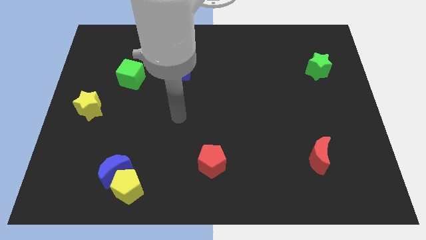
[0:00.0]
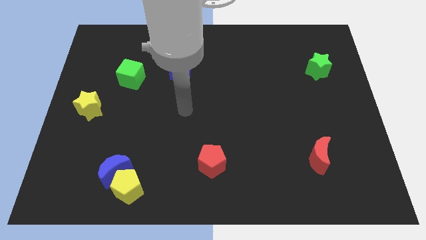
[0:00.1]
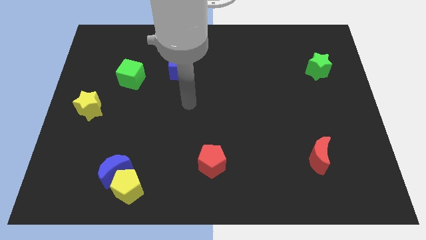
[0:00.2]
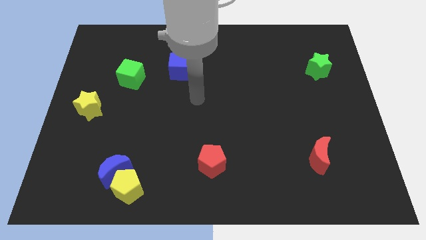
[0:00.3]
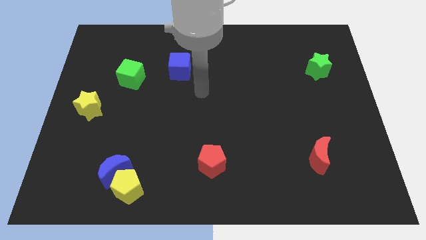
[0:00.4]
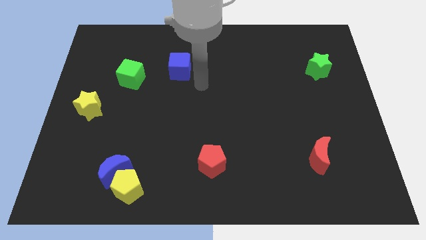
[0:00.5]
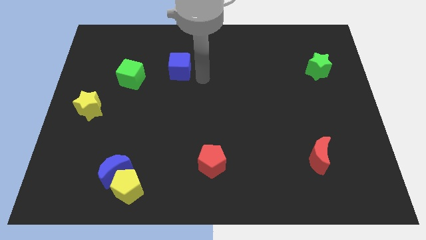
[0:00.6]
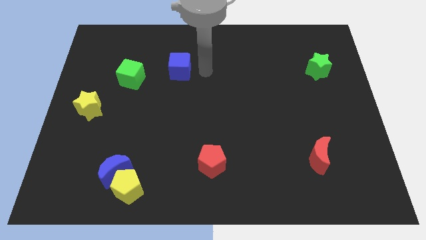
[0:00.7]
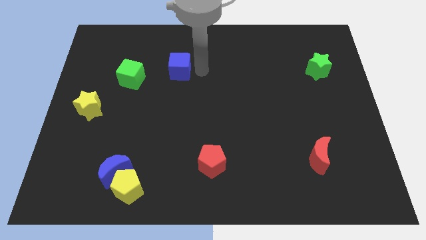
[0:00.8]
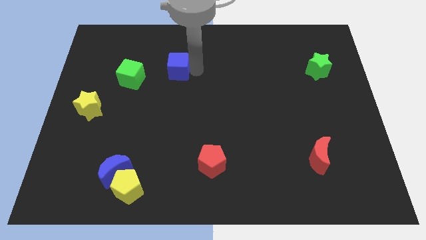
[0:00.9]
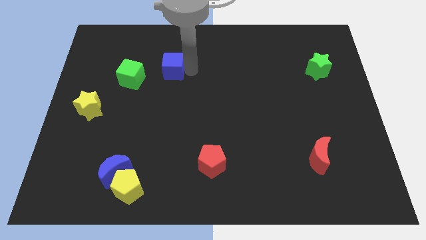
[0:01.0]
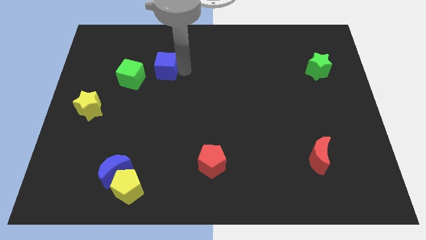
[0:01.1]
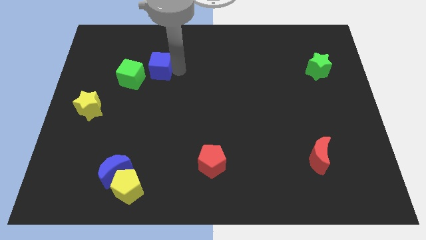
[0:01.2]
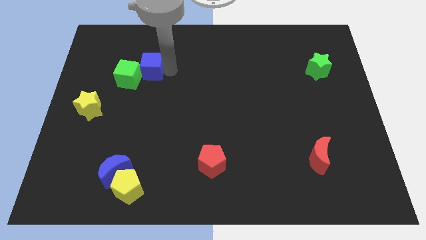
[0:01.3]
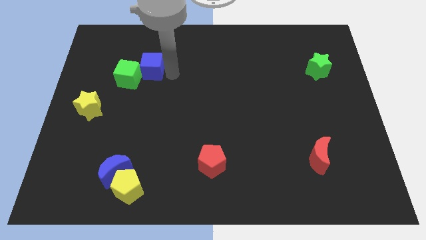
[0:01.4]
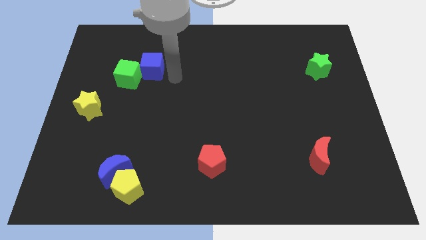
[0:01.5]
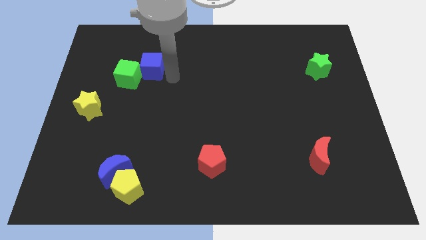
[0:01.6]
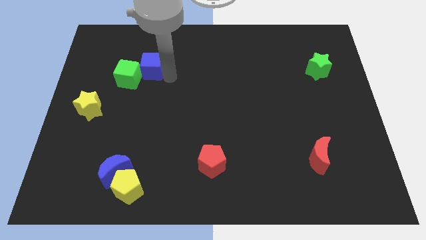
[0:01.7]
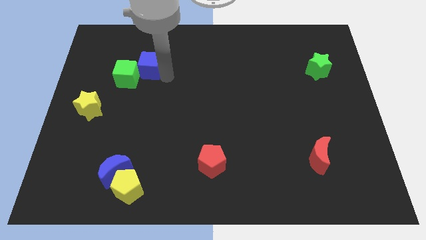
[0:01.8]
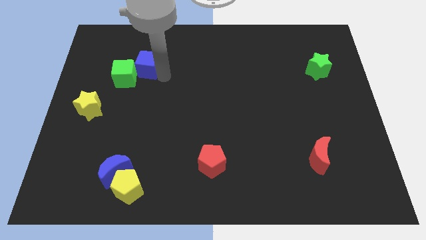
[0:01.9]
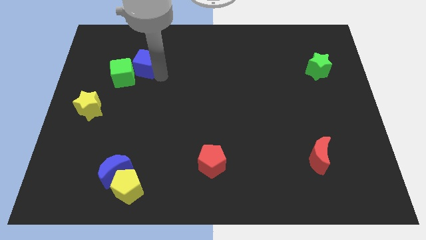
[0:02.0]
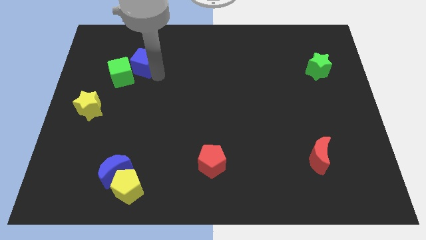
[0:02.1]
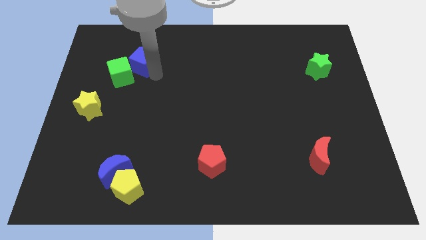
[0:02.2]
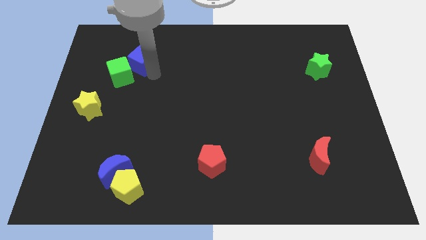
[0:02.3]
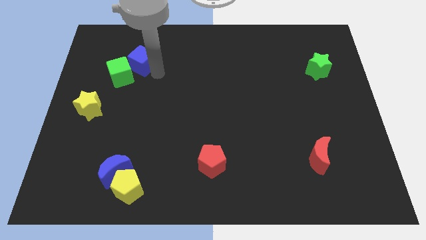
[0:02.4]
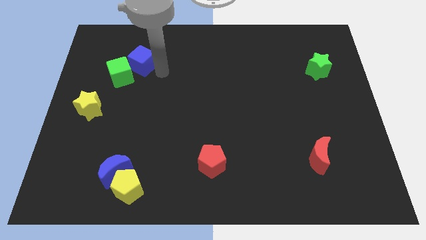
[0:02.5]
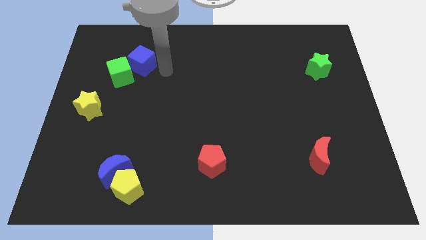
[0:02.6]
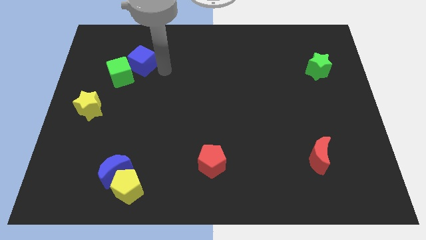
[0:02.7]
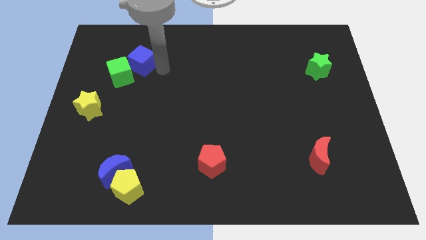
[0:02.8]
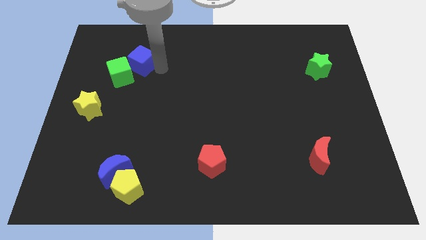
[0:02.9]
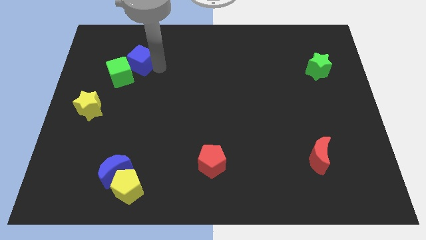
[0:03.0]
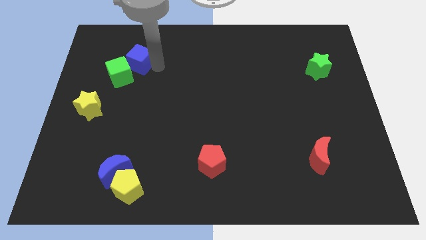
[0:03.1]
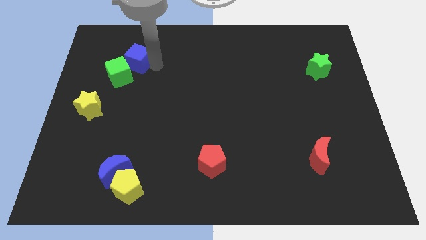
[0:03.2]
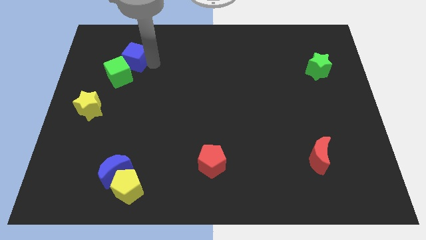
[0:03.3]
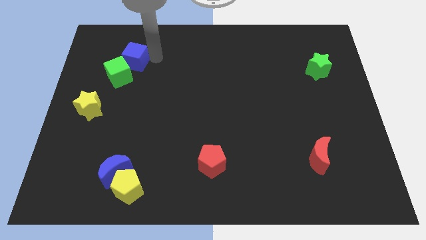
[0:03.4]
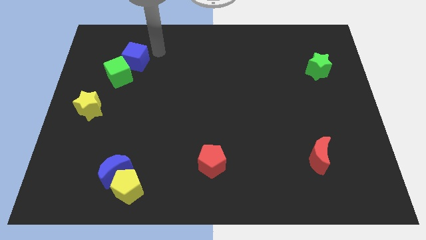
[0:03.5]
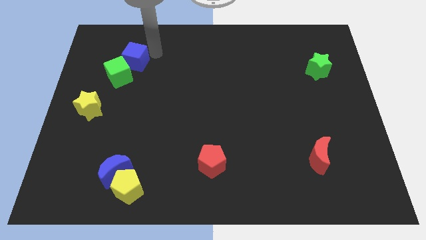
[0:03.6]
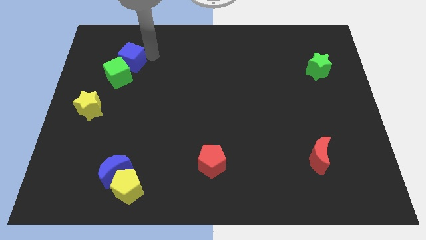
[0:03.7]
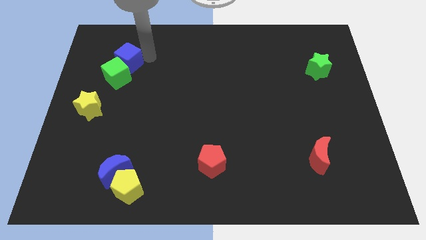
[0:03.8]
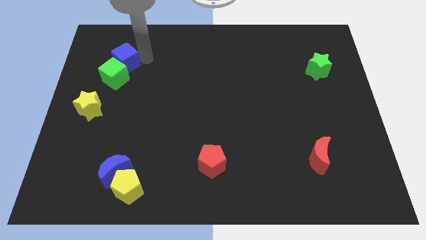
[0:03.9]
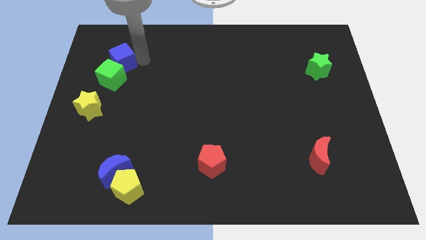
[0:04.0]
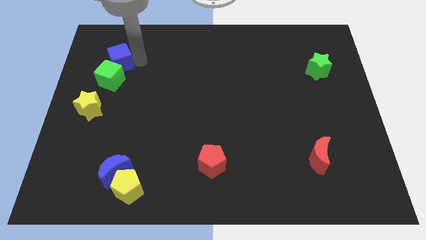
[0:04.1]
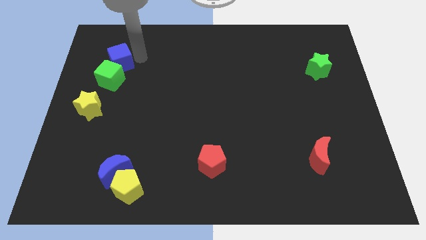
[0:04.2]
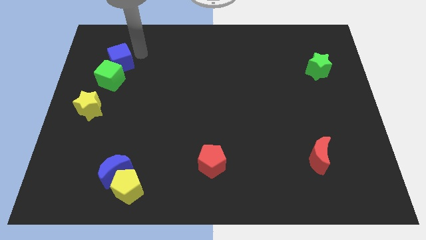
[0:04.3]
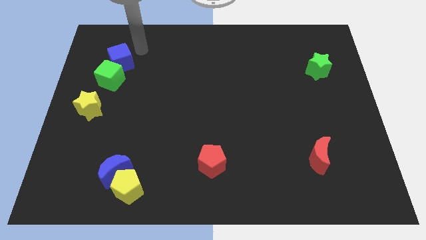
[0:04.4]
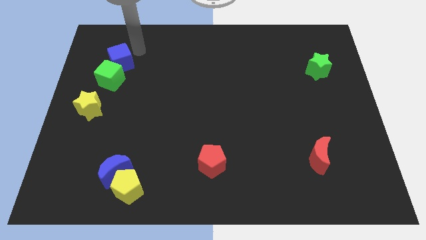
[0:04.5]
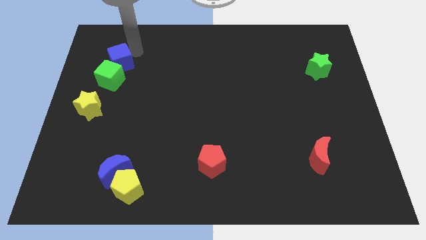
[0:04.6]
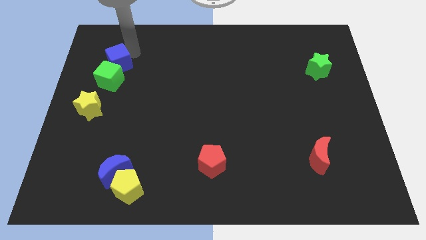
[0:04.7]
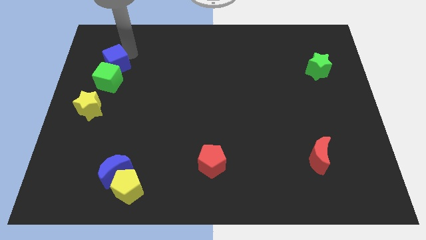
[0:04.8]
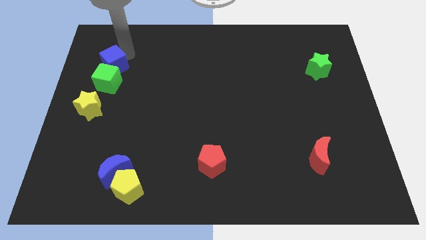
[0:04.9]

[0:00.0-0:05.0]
push the blue cube above the yellow star

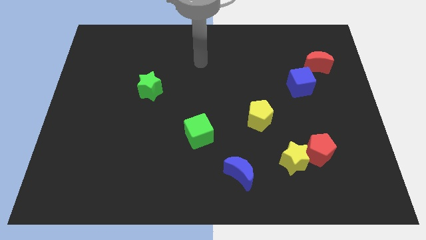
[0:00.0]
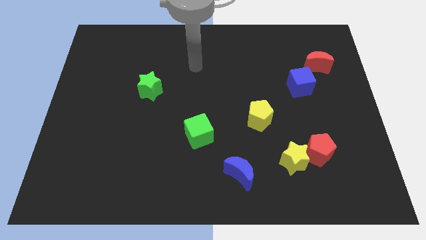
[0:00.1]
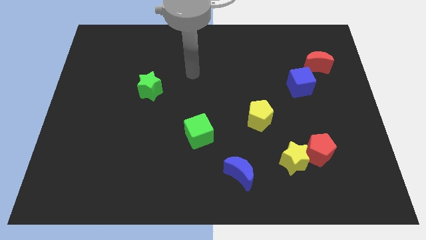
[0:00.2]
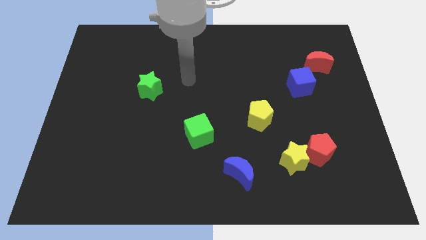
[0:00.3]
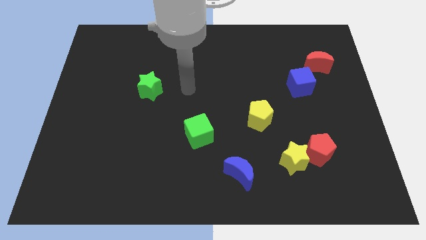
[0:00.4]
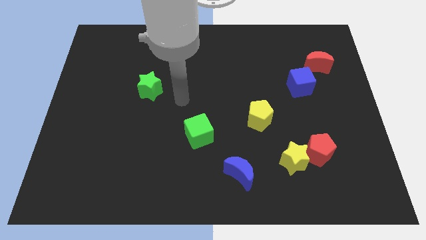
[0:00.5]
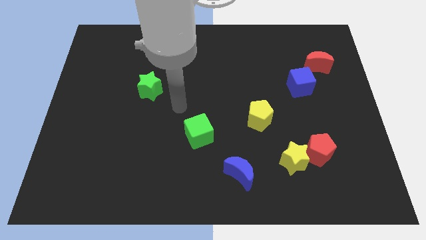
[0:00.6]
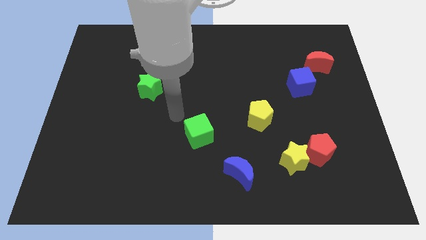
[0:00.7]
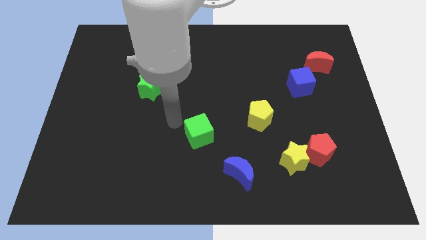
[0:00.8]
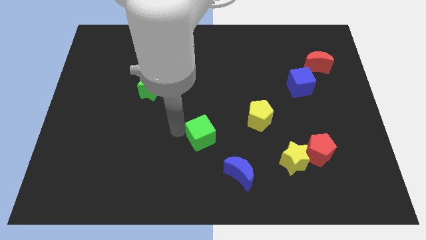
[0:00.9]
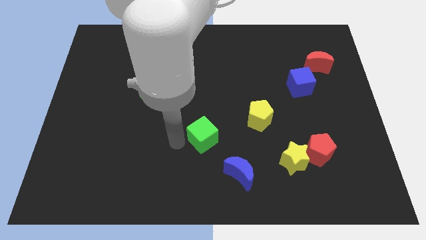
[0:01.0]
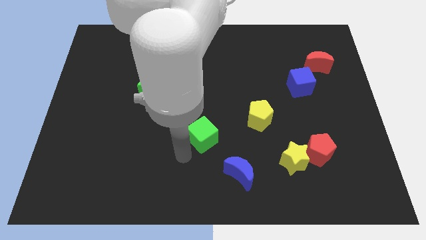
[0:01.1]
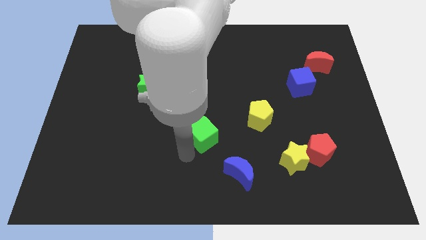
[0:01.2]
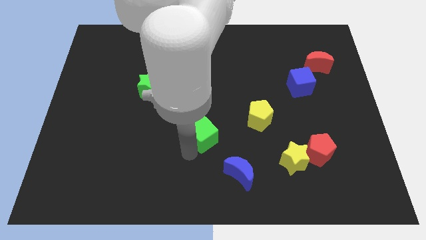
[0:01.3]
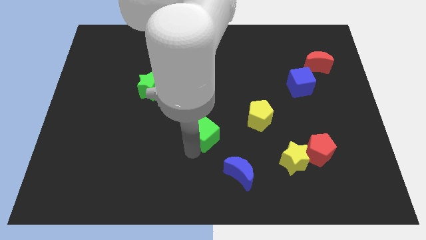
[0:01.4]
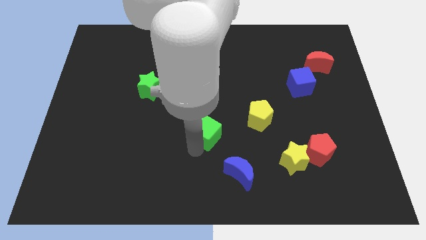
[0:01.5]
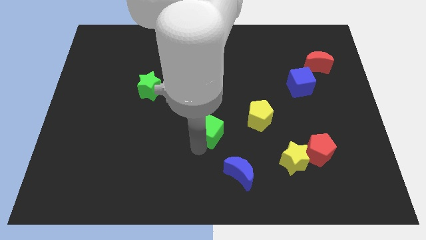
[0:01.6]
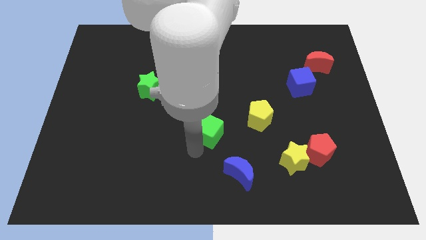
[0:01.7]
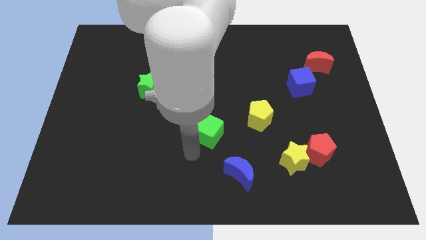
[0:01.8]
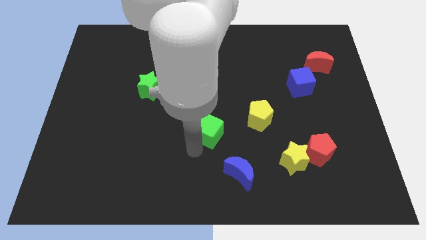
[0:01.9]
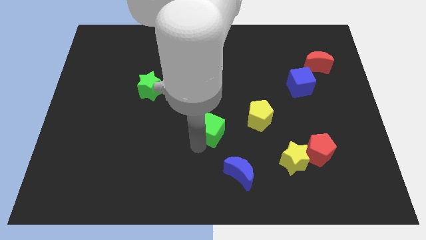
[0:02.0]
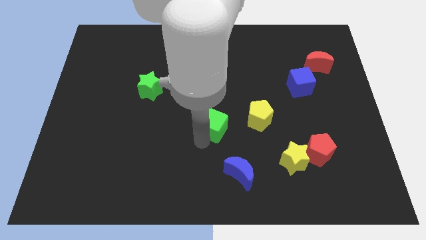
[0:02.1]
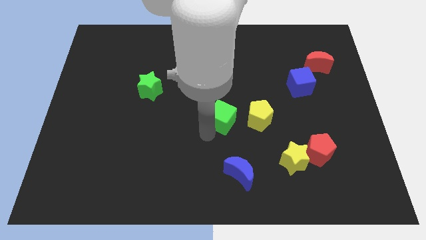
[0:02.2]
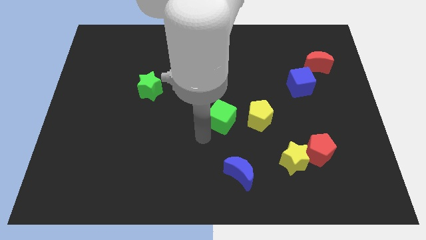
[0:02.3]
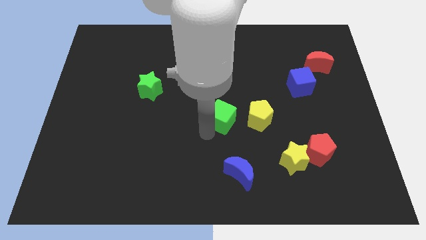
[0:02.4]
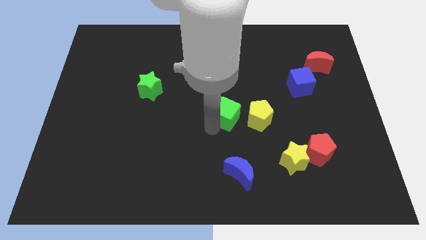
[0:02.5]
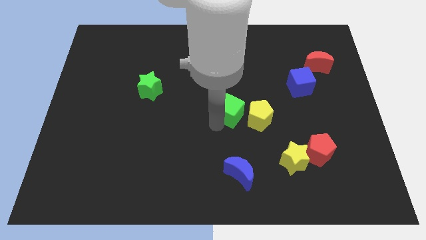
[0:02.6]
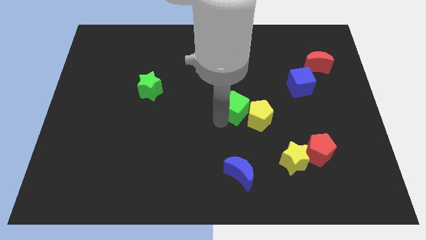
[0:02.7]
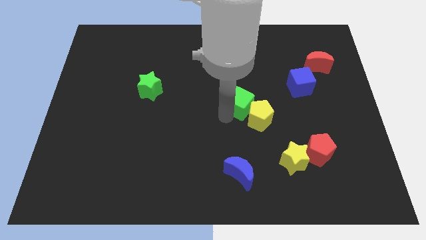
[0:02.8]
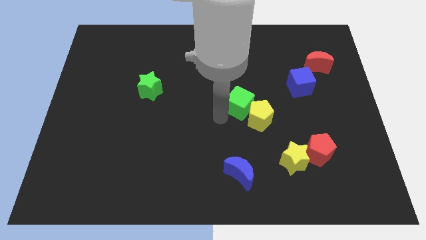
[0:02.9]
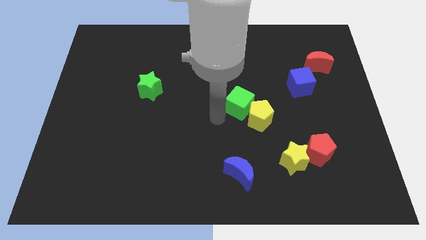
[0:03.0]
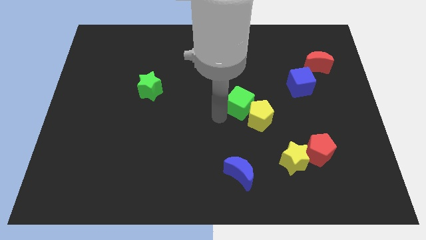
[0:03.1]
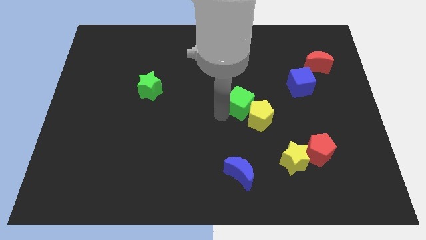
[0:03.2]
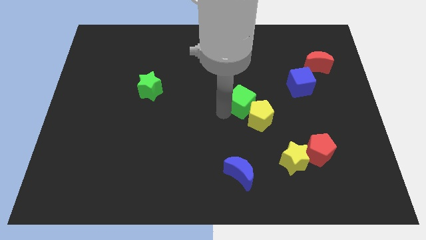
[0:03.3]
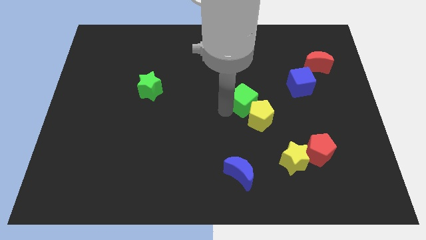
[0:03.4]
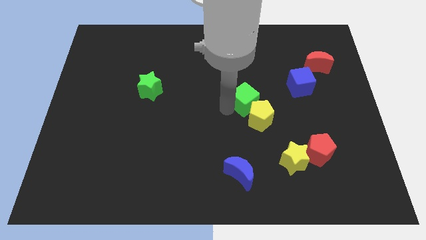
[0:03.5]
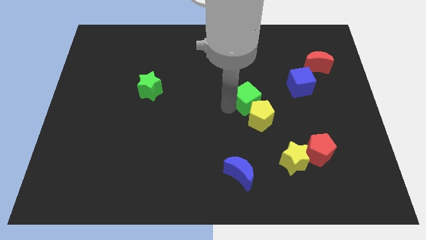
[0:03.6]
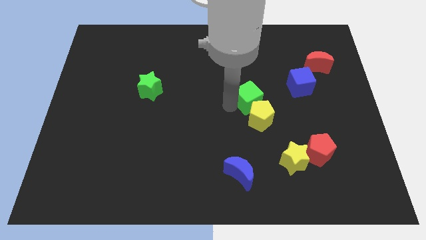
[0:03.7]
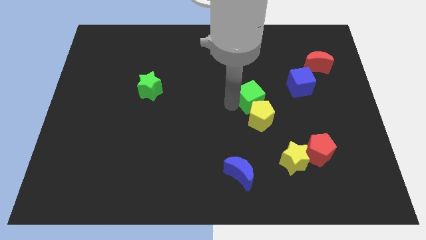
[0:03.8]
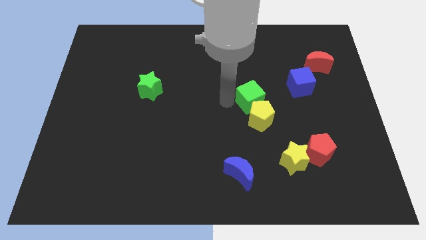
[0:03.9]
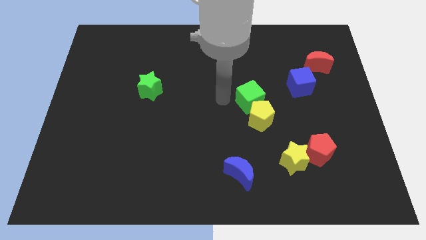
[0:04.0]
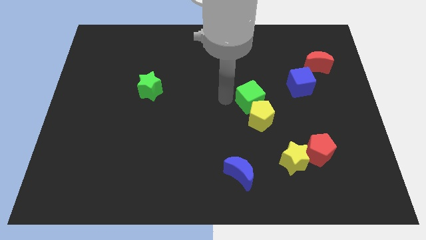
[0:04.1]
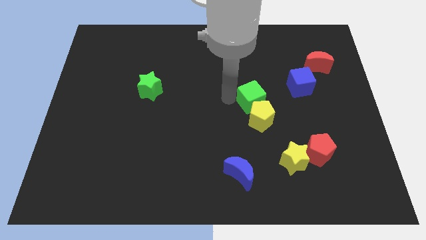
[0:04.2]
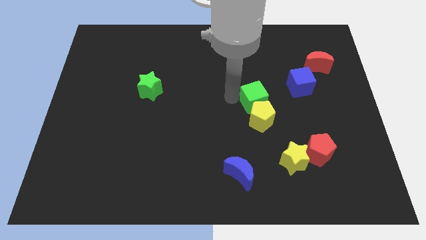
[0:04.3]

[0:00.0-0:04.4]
push the green cube to the top right side of the yellow pentagon
